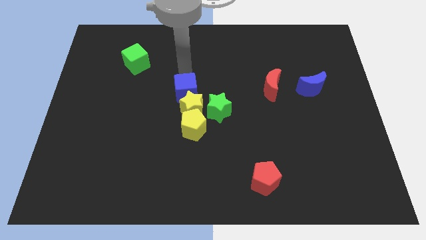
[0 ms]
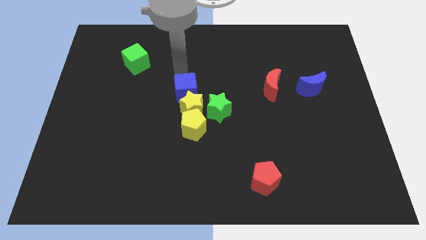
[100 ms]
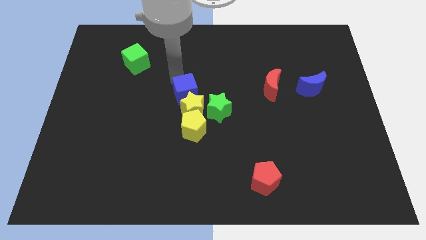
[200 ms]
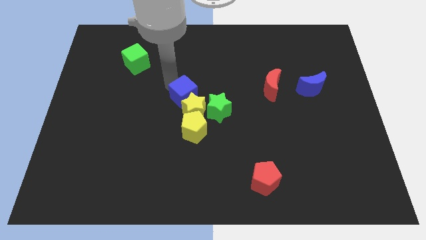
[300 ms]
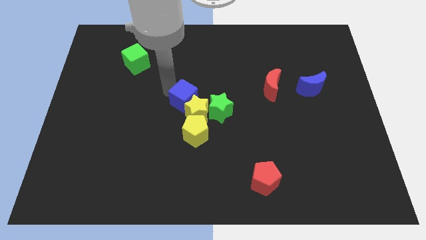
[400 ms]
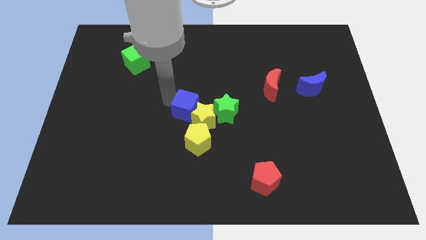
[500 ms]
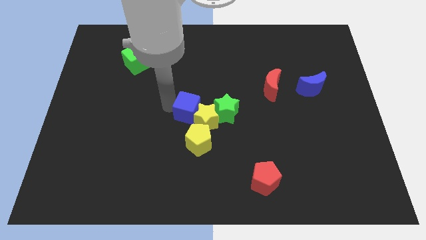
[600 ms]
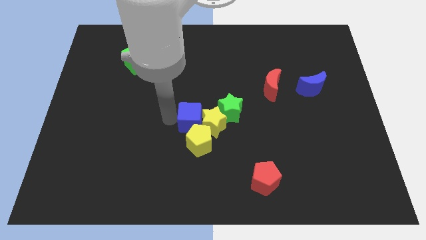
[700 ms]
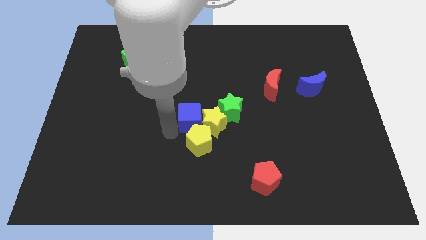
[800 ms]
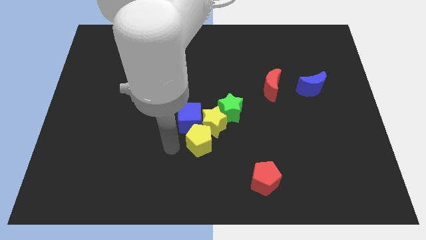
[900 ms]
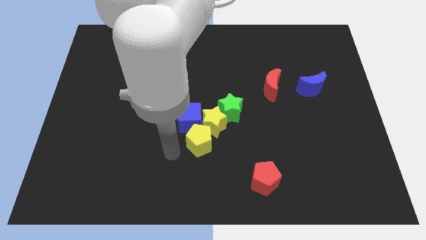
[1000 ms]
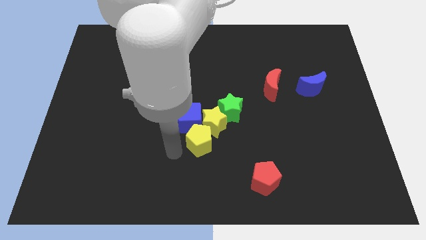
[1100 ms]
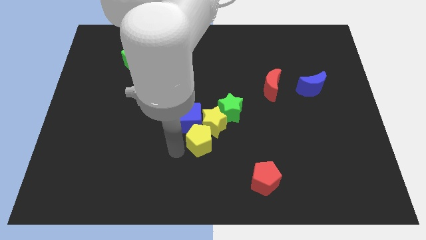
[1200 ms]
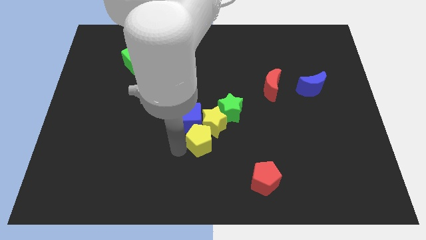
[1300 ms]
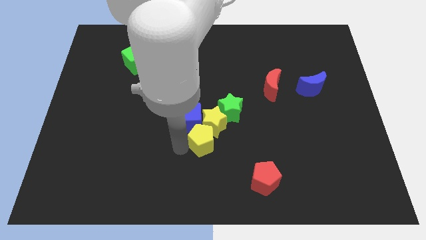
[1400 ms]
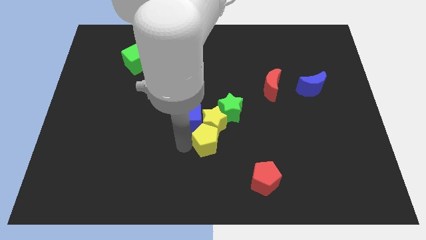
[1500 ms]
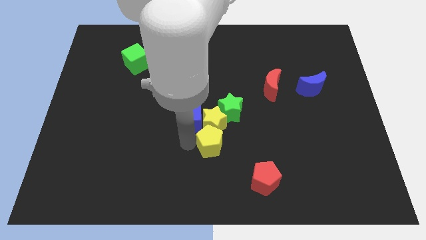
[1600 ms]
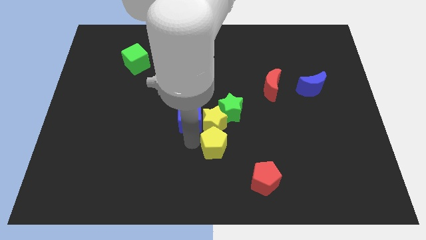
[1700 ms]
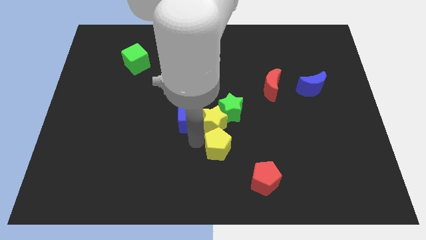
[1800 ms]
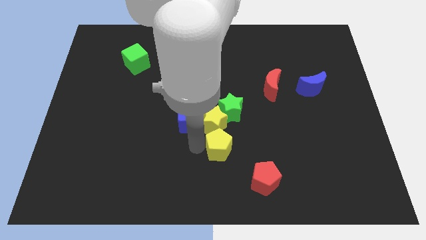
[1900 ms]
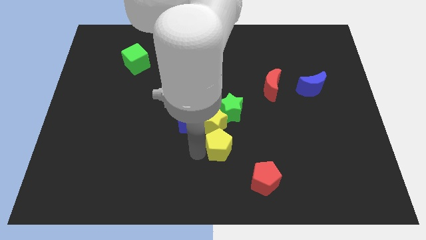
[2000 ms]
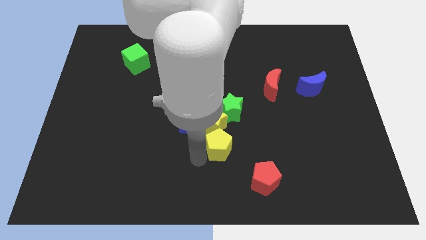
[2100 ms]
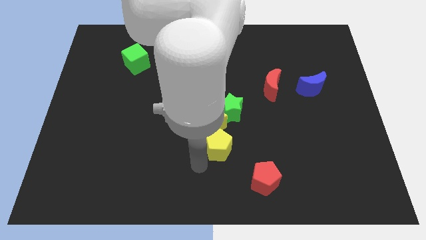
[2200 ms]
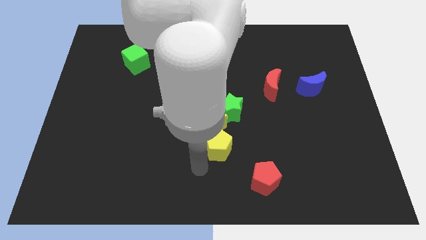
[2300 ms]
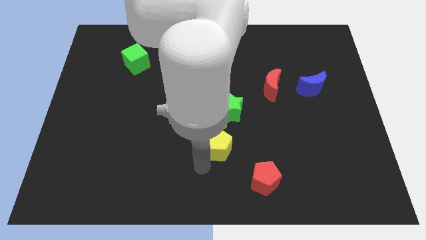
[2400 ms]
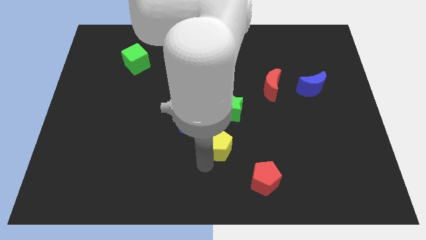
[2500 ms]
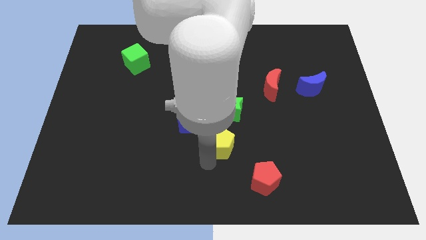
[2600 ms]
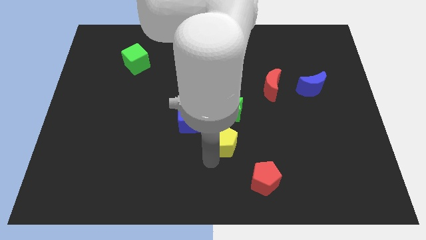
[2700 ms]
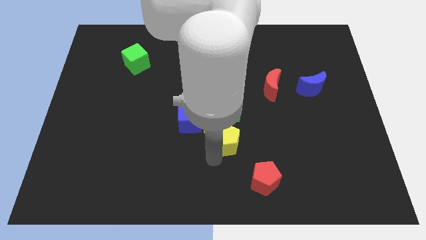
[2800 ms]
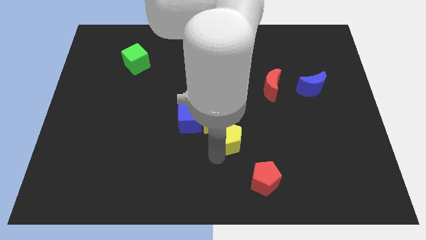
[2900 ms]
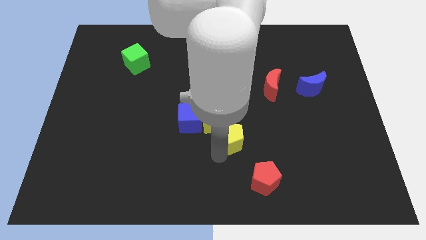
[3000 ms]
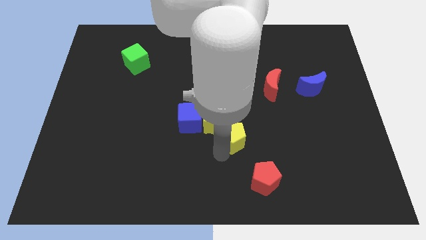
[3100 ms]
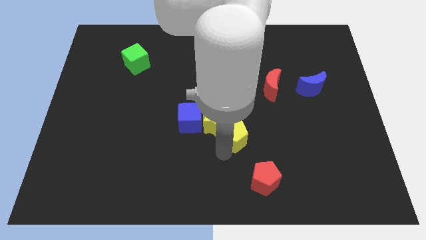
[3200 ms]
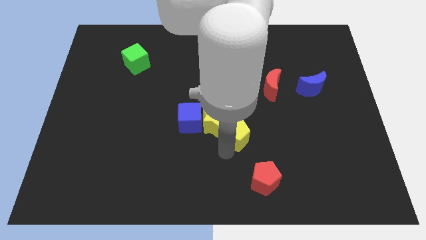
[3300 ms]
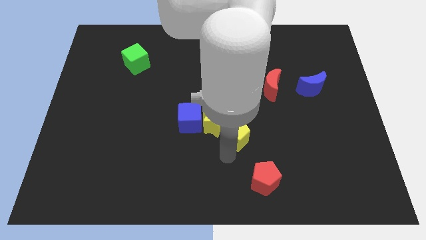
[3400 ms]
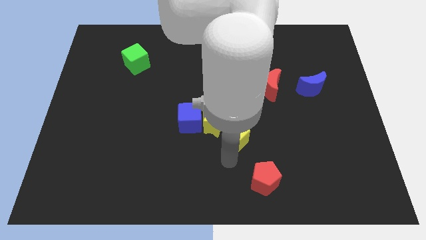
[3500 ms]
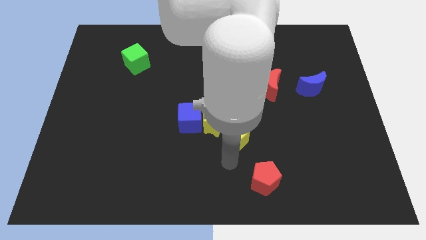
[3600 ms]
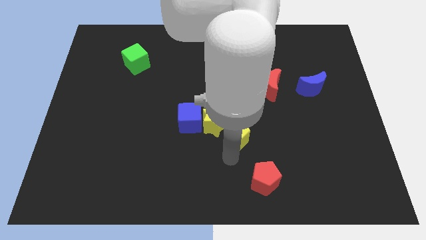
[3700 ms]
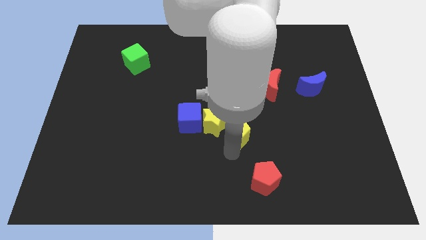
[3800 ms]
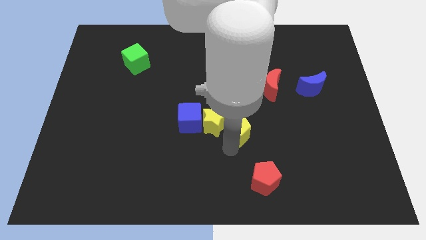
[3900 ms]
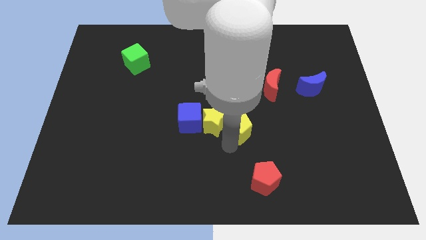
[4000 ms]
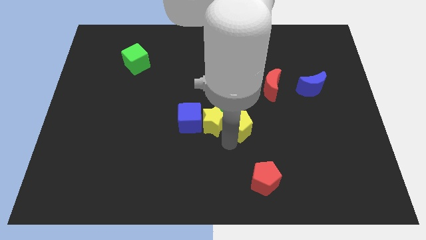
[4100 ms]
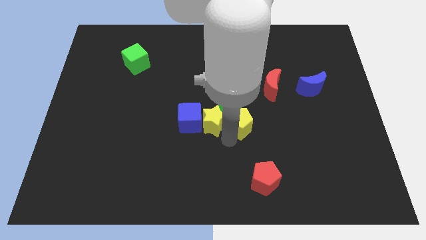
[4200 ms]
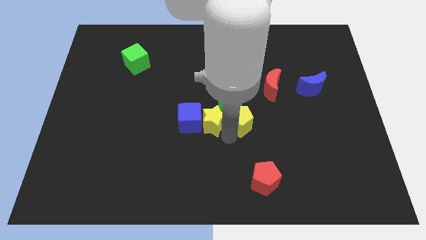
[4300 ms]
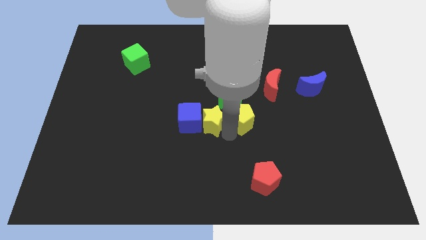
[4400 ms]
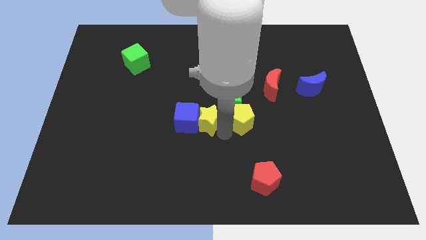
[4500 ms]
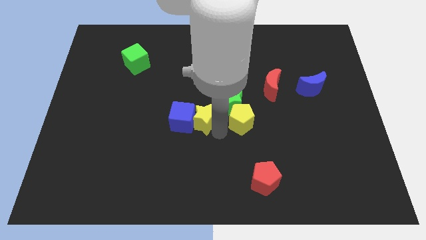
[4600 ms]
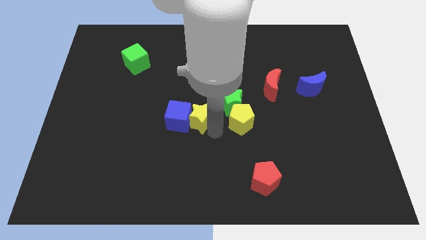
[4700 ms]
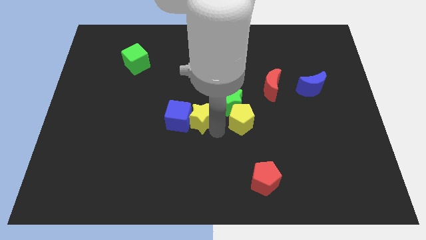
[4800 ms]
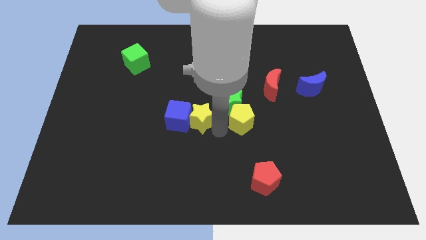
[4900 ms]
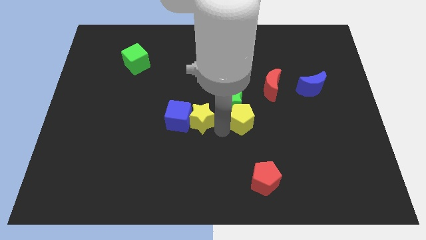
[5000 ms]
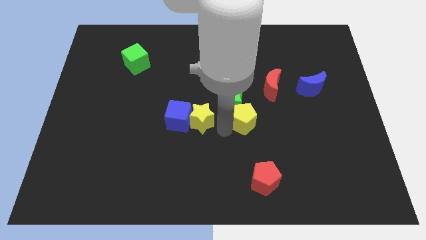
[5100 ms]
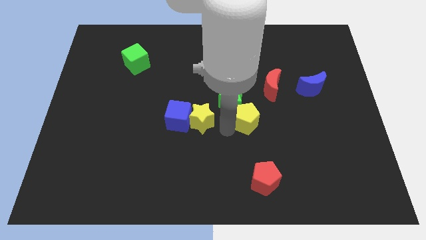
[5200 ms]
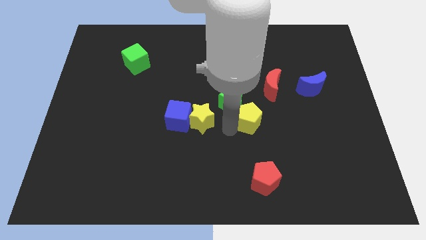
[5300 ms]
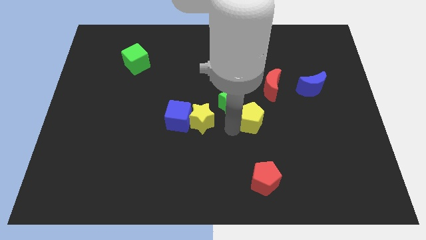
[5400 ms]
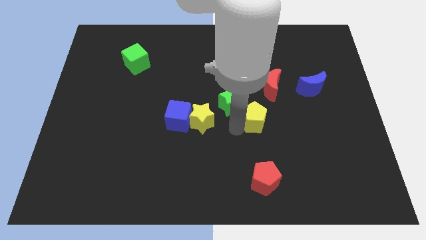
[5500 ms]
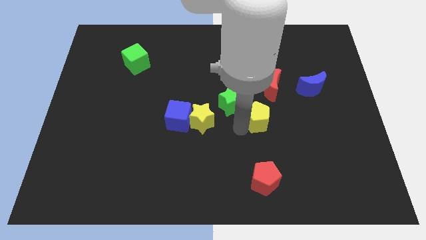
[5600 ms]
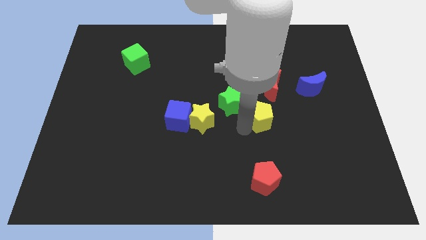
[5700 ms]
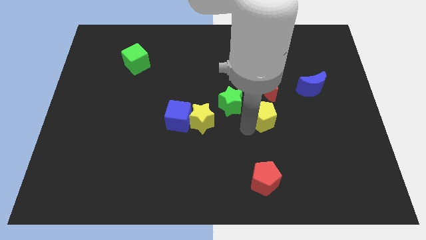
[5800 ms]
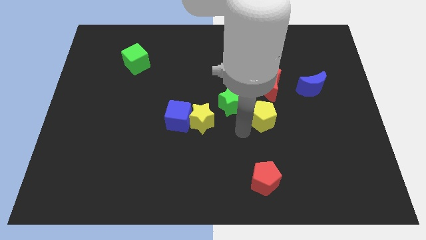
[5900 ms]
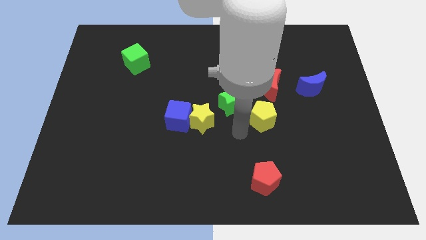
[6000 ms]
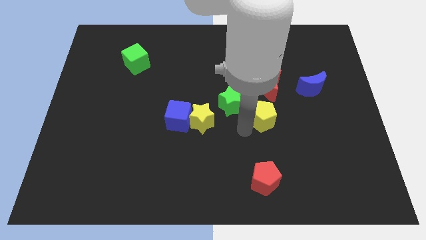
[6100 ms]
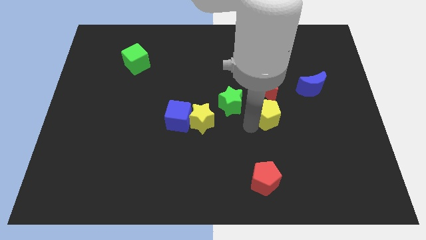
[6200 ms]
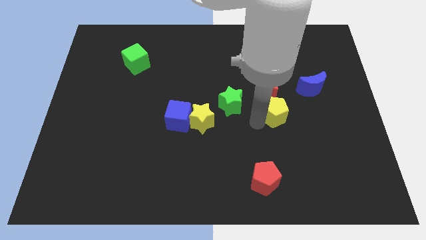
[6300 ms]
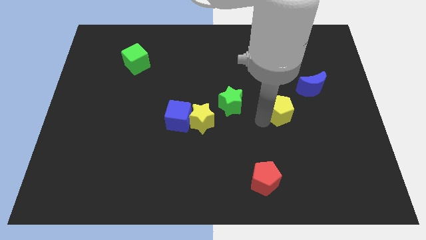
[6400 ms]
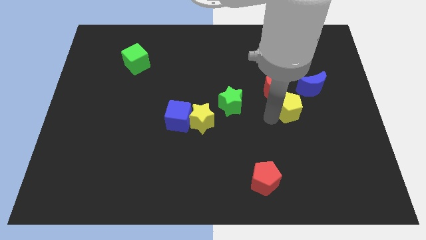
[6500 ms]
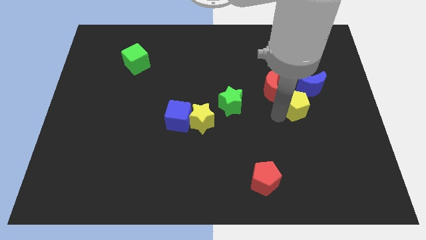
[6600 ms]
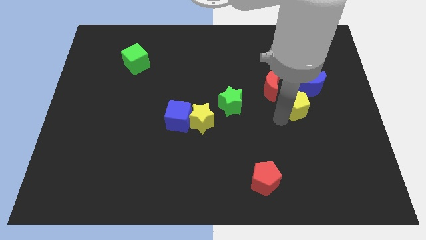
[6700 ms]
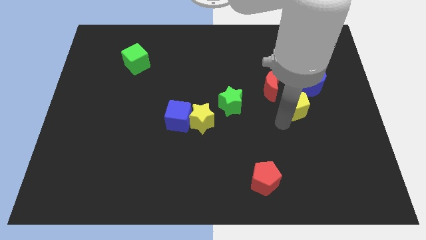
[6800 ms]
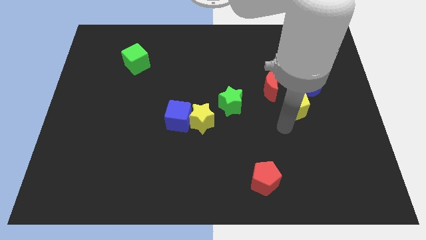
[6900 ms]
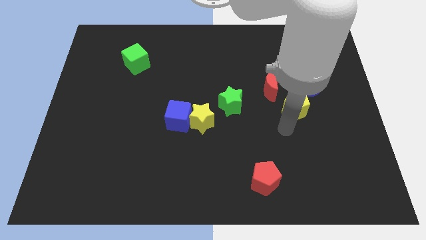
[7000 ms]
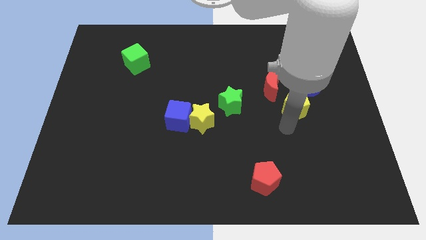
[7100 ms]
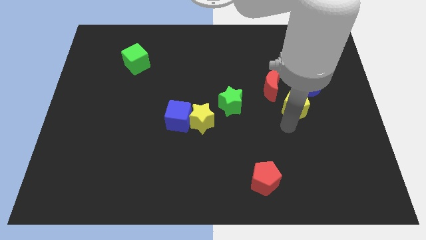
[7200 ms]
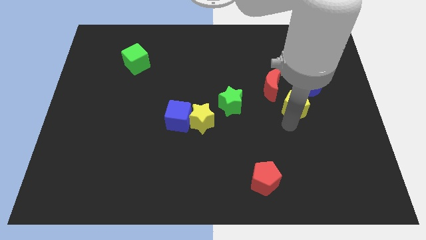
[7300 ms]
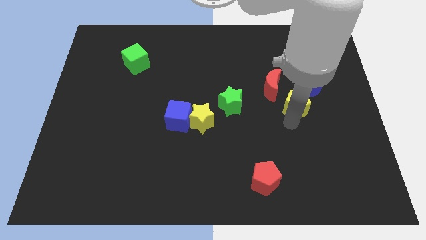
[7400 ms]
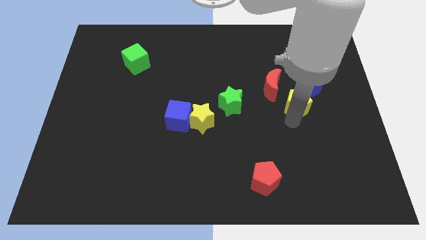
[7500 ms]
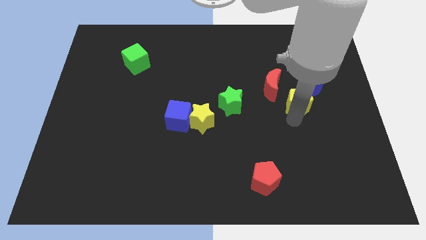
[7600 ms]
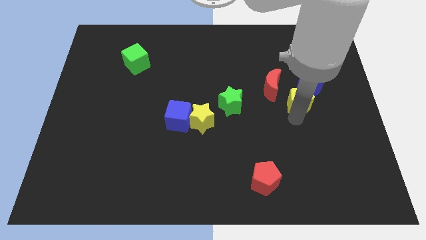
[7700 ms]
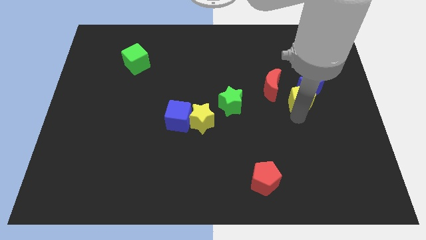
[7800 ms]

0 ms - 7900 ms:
put the yellow pentagon to the blue moon
